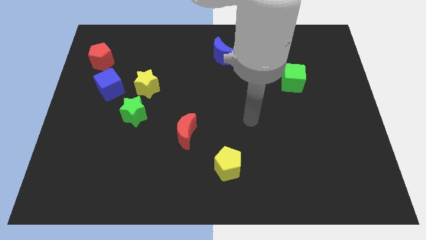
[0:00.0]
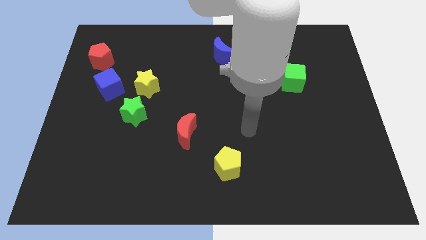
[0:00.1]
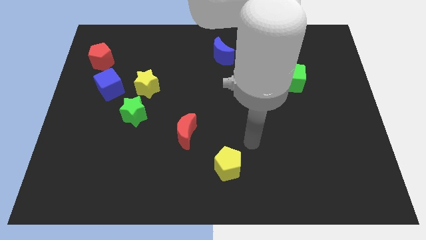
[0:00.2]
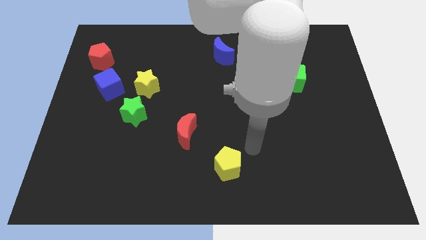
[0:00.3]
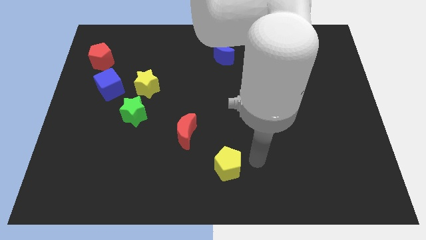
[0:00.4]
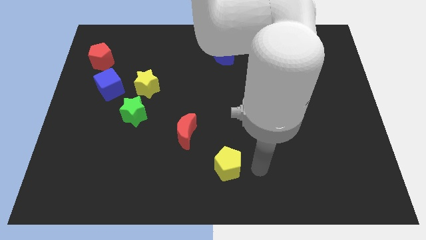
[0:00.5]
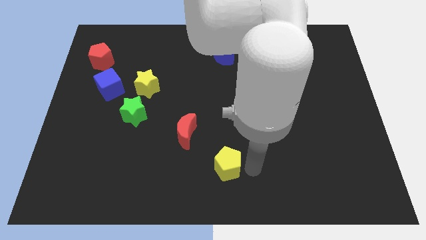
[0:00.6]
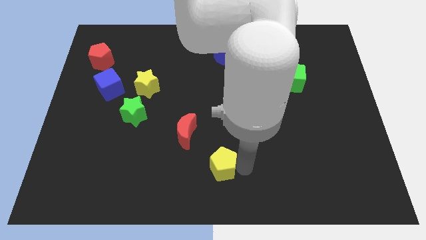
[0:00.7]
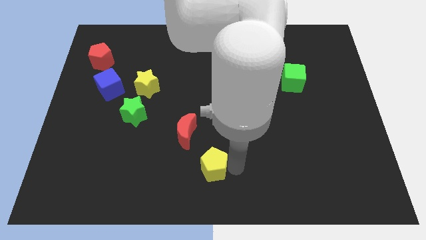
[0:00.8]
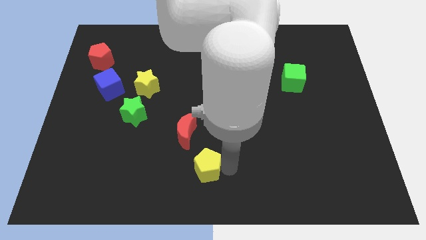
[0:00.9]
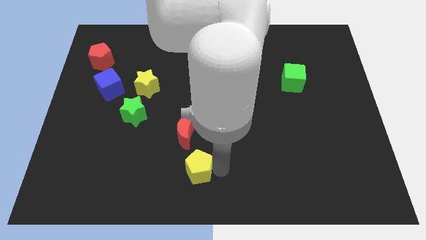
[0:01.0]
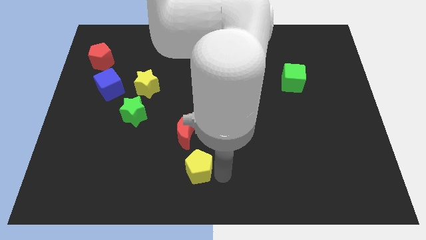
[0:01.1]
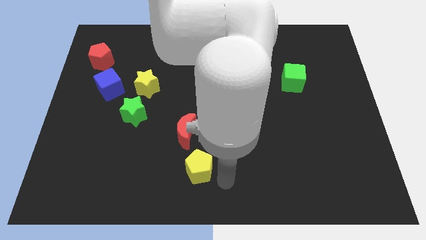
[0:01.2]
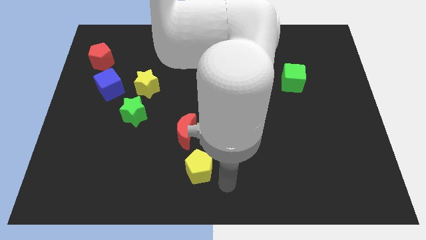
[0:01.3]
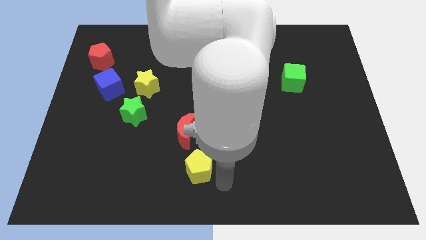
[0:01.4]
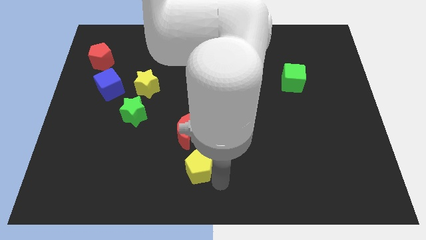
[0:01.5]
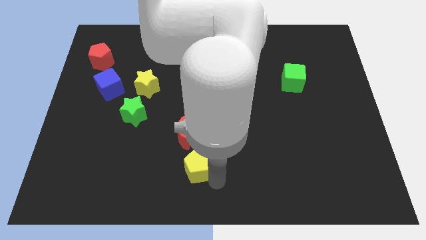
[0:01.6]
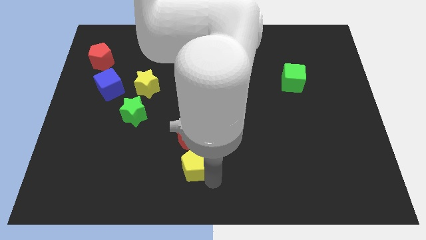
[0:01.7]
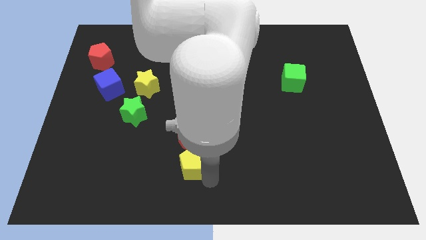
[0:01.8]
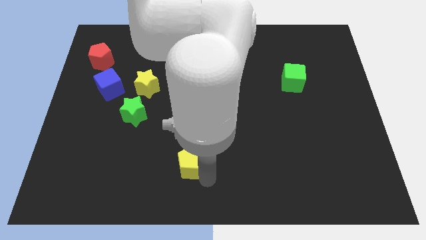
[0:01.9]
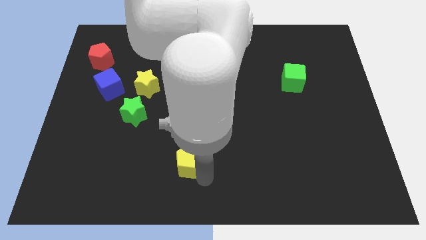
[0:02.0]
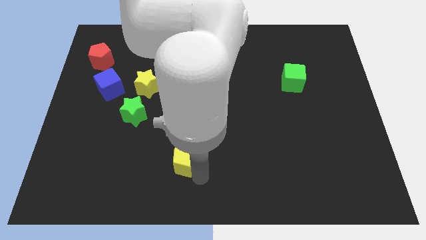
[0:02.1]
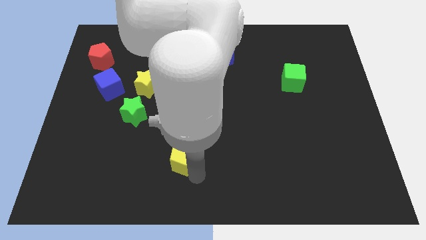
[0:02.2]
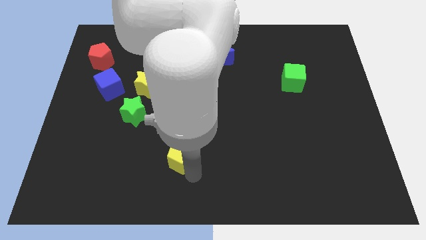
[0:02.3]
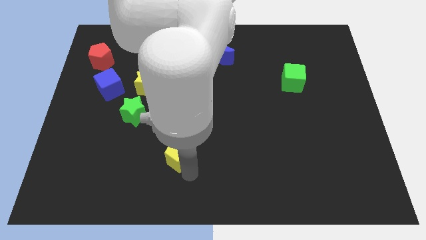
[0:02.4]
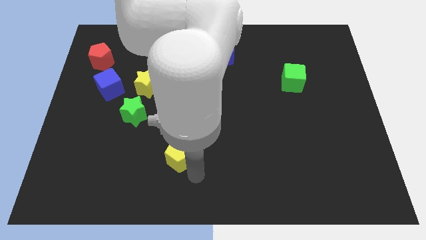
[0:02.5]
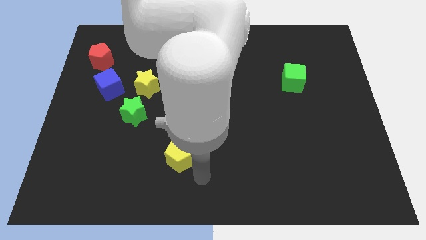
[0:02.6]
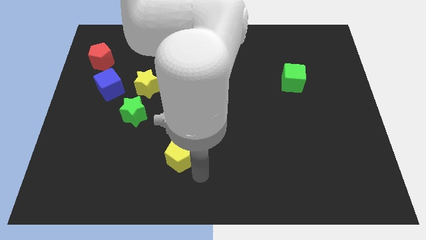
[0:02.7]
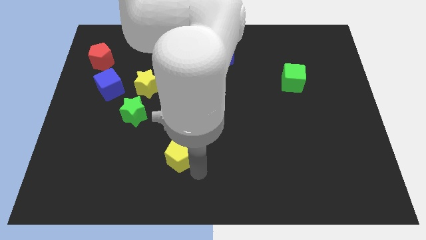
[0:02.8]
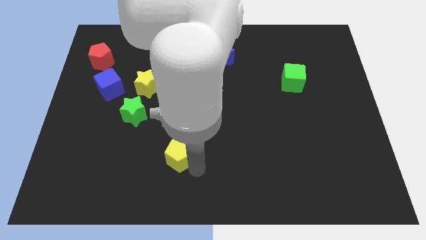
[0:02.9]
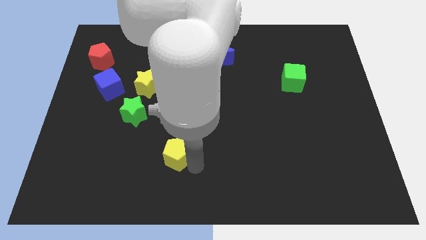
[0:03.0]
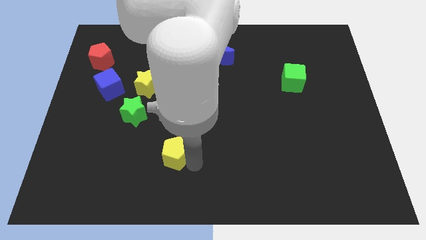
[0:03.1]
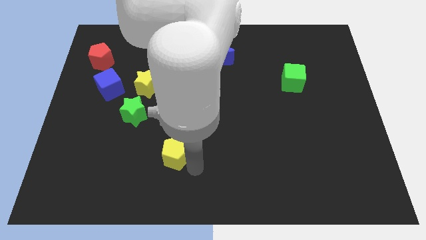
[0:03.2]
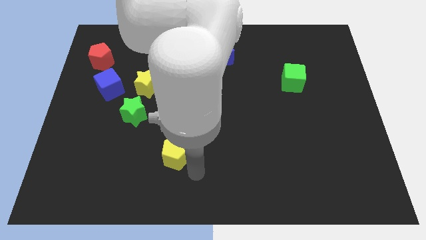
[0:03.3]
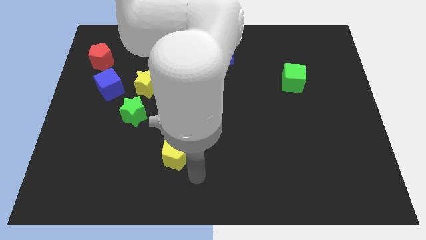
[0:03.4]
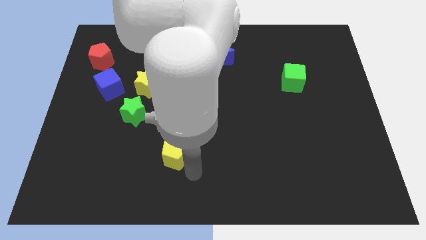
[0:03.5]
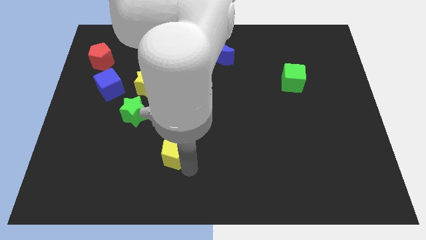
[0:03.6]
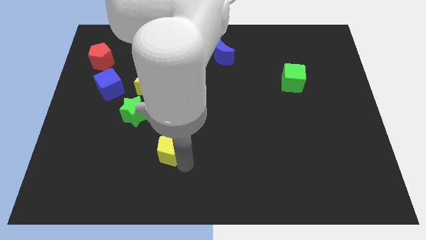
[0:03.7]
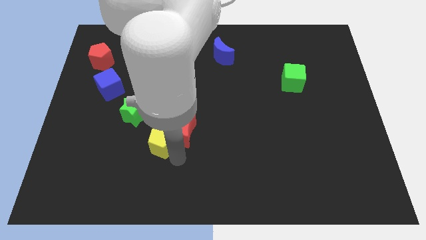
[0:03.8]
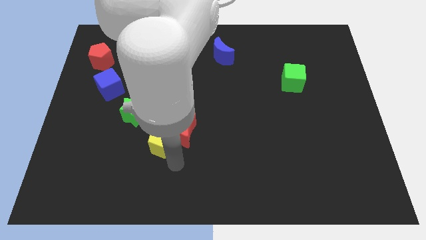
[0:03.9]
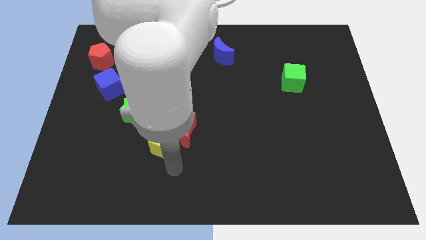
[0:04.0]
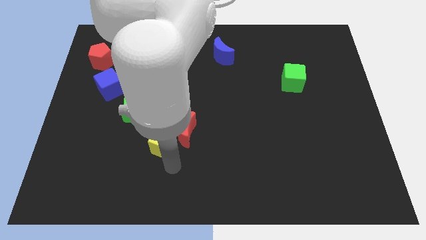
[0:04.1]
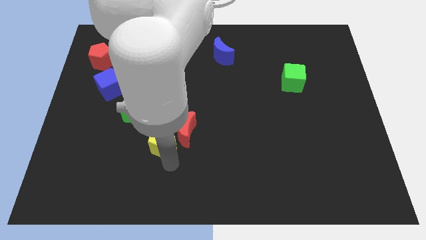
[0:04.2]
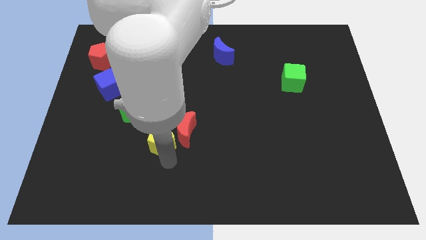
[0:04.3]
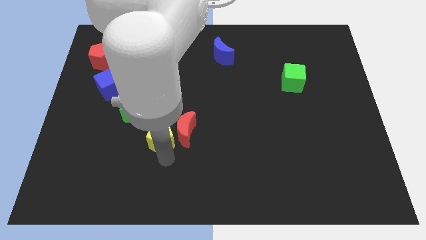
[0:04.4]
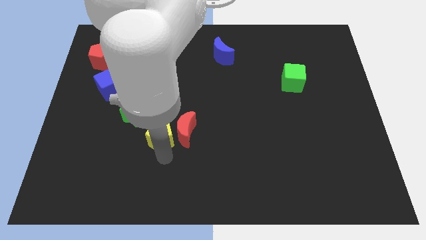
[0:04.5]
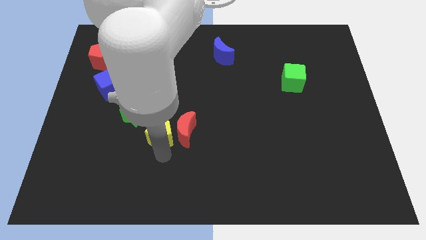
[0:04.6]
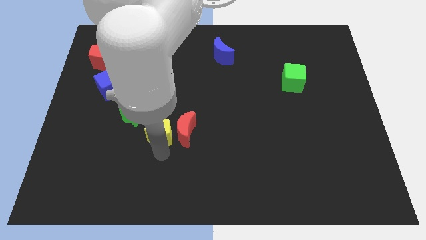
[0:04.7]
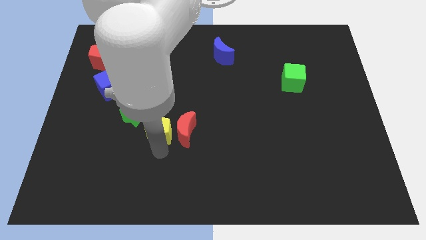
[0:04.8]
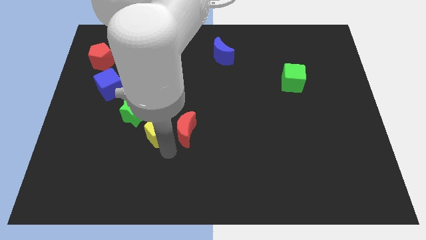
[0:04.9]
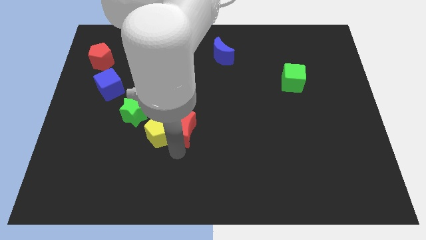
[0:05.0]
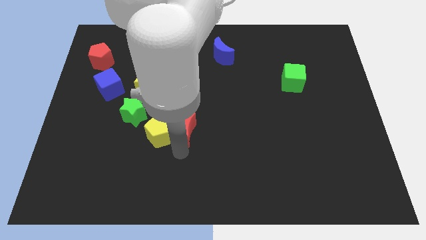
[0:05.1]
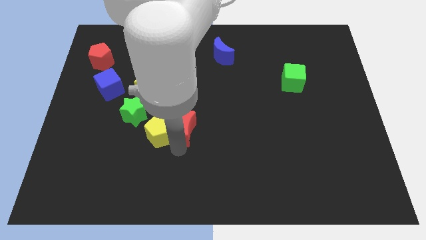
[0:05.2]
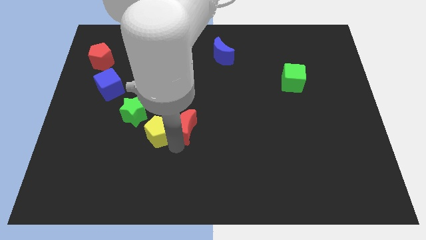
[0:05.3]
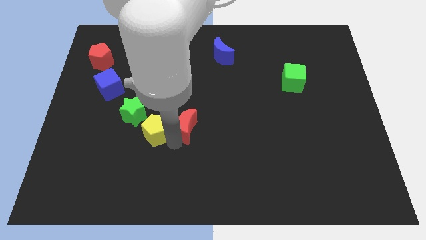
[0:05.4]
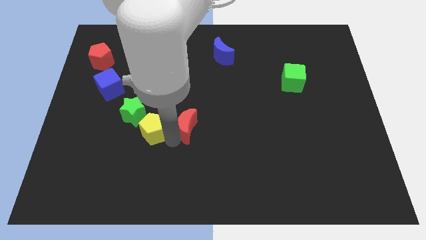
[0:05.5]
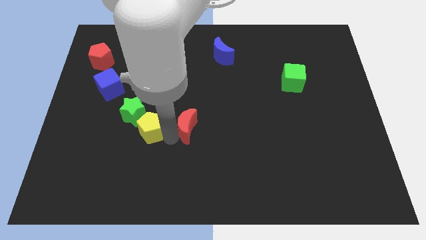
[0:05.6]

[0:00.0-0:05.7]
slide the yellow pentagon close to the green star

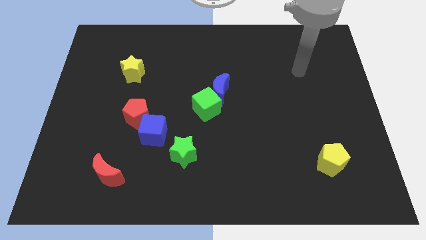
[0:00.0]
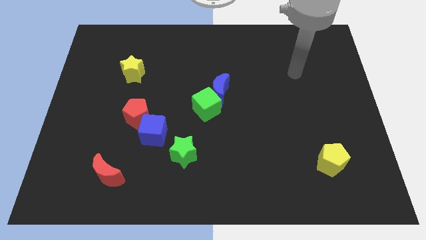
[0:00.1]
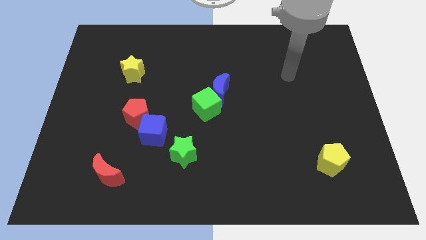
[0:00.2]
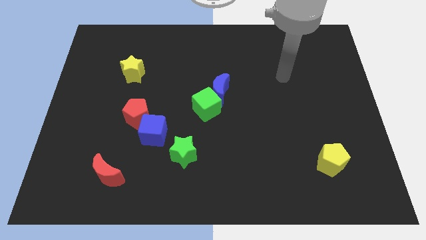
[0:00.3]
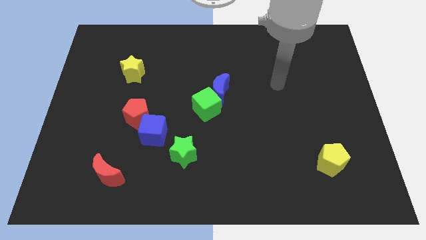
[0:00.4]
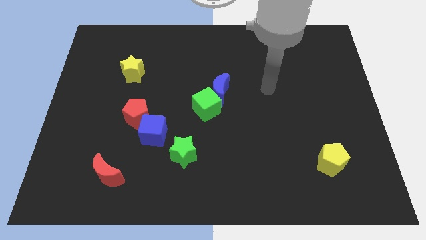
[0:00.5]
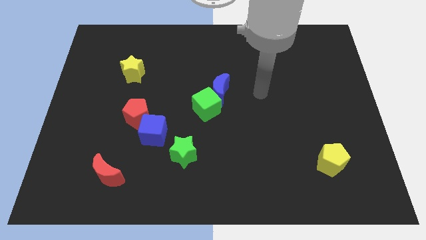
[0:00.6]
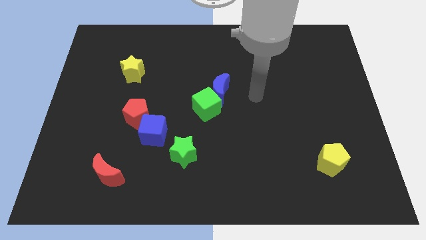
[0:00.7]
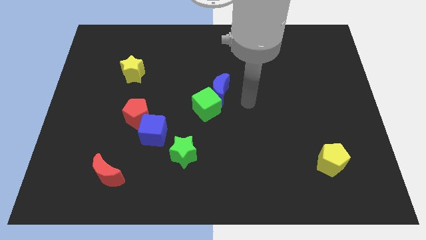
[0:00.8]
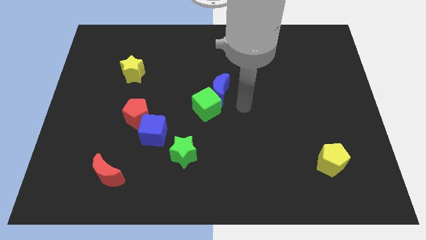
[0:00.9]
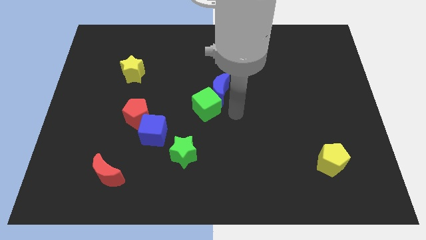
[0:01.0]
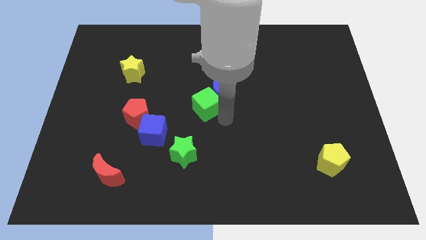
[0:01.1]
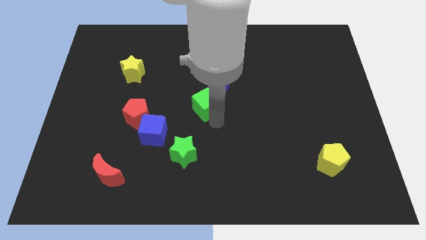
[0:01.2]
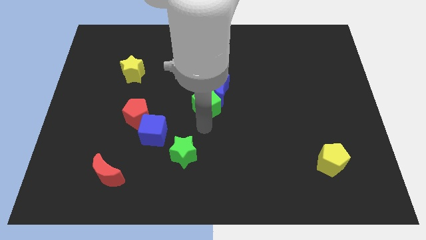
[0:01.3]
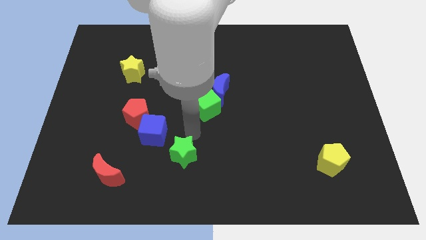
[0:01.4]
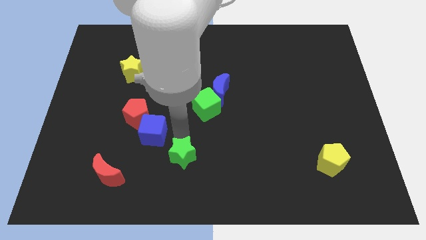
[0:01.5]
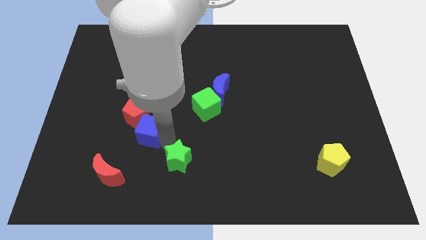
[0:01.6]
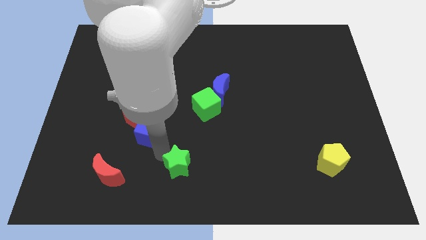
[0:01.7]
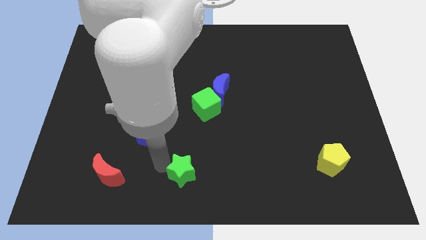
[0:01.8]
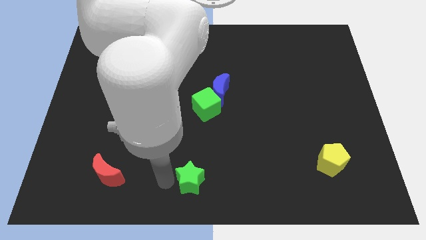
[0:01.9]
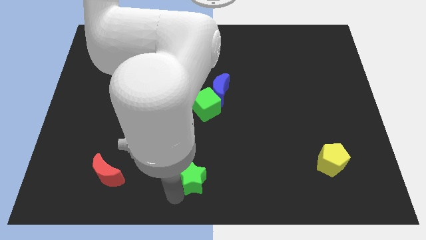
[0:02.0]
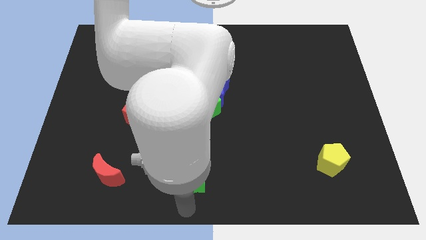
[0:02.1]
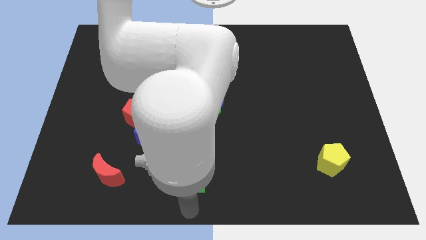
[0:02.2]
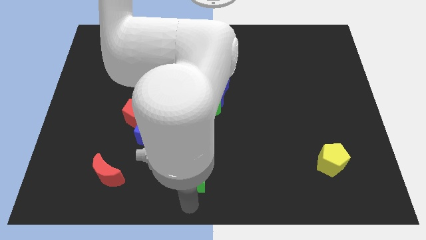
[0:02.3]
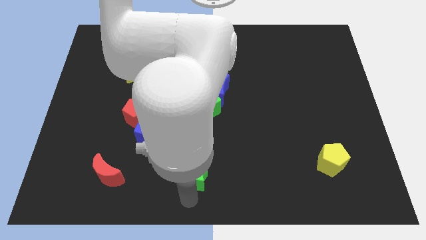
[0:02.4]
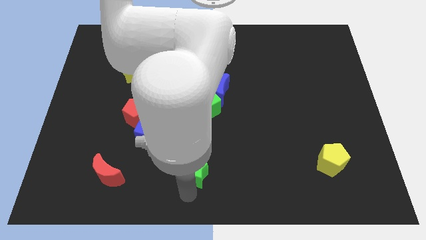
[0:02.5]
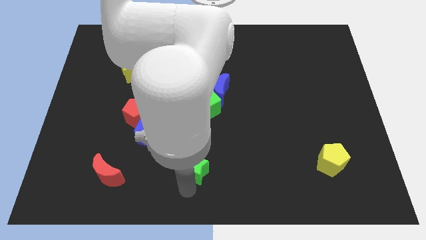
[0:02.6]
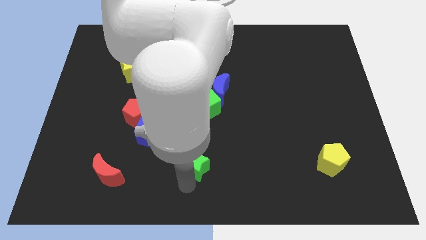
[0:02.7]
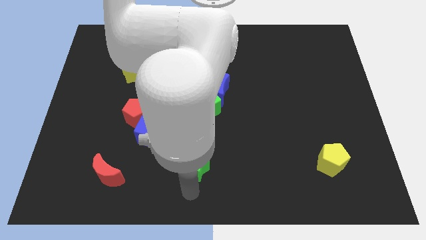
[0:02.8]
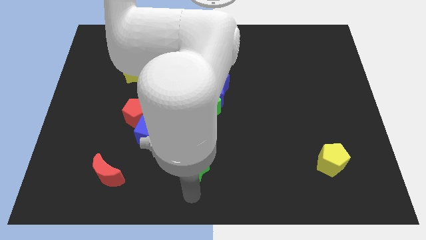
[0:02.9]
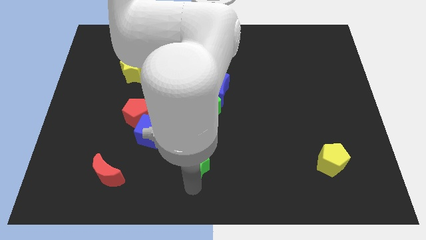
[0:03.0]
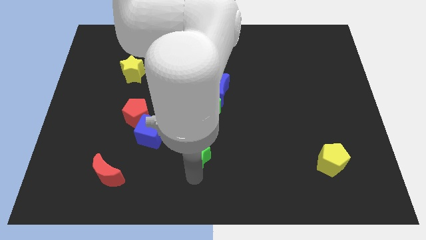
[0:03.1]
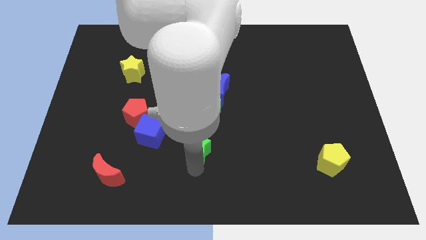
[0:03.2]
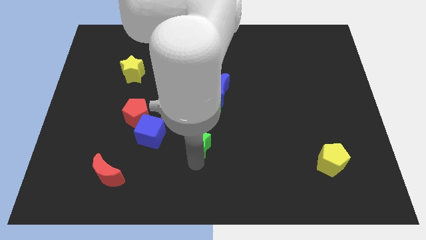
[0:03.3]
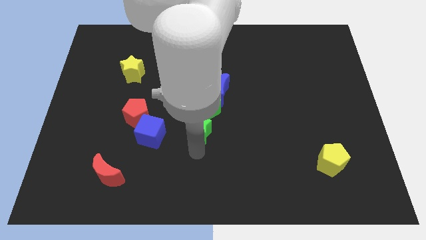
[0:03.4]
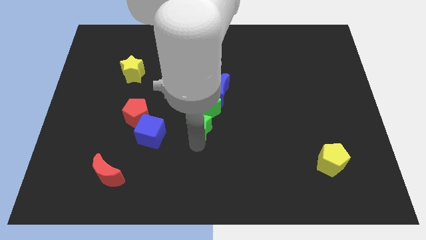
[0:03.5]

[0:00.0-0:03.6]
move the green star towards the green cube
